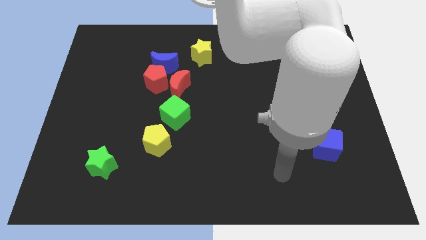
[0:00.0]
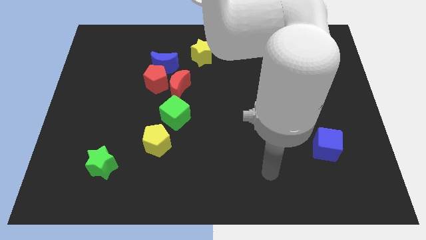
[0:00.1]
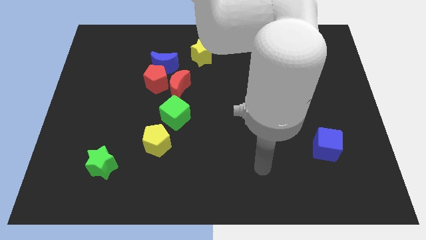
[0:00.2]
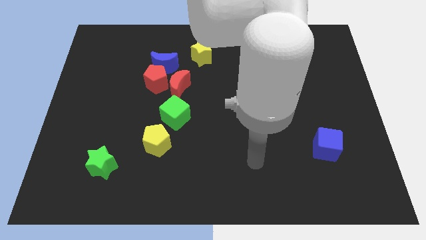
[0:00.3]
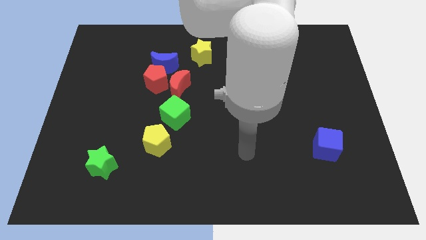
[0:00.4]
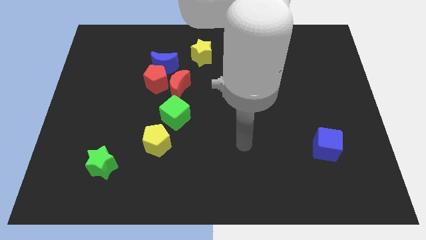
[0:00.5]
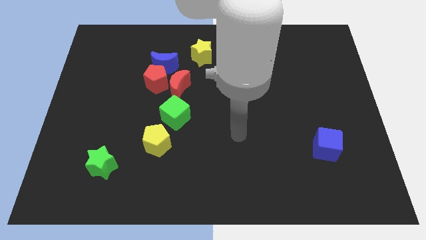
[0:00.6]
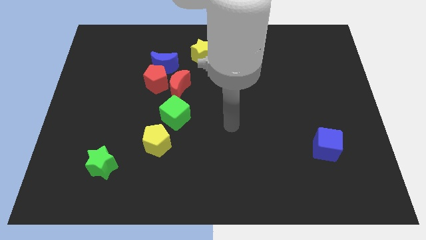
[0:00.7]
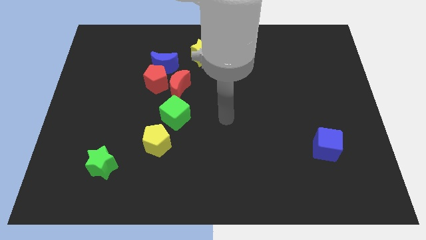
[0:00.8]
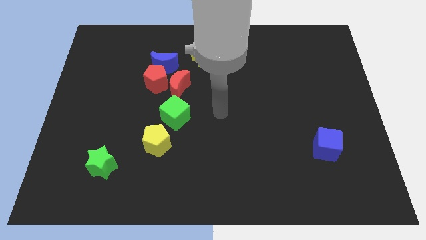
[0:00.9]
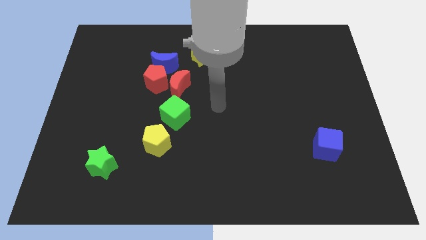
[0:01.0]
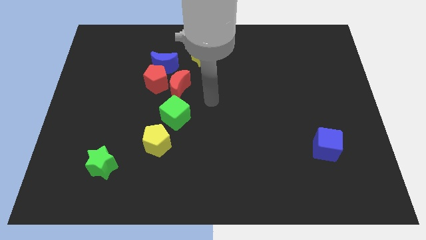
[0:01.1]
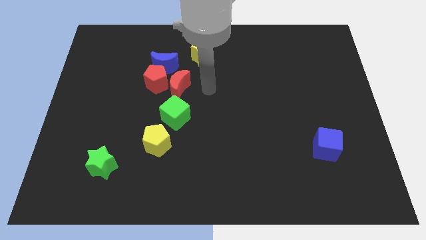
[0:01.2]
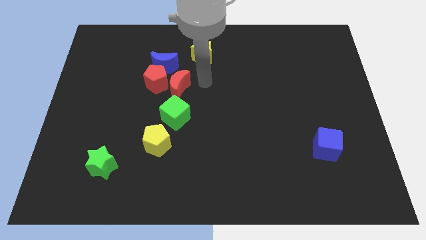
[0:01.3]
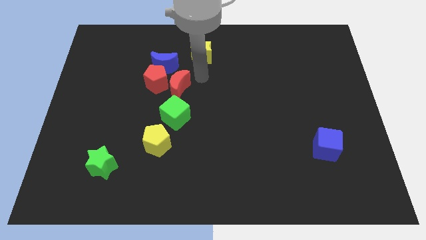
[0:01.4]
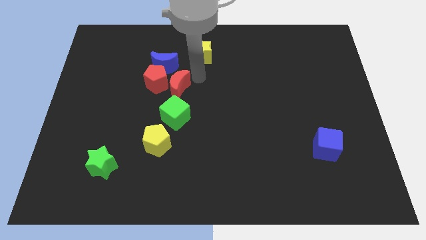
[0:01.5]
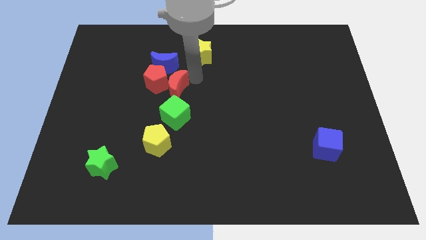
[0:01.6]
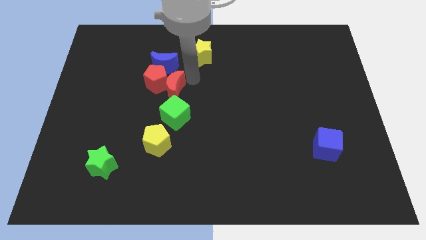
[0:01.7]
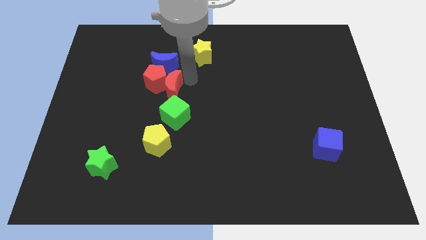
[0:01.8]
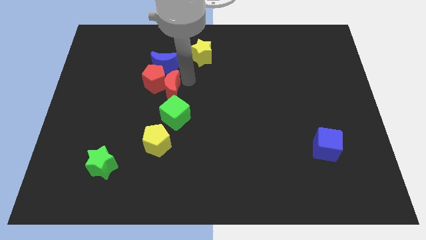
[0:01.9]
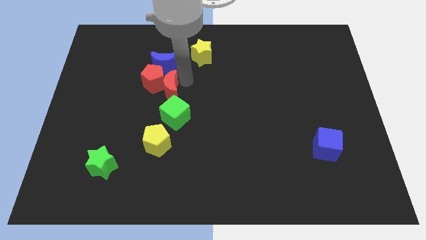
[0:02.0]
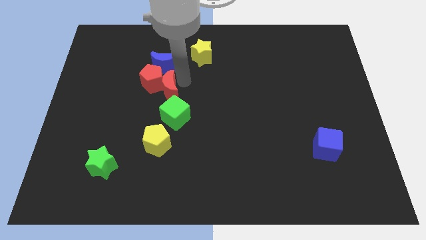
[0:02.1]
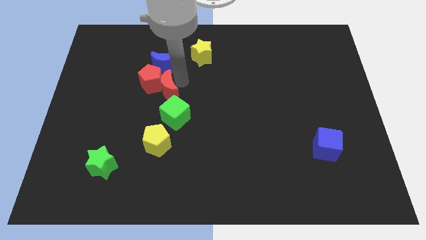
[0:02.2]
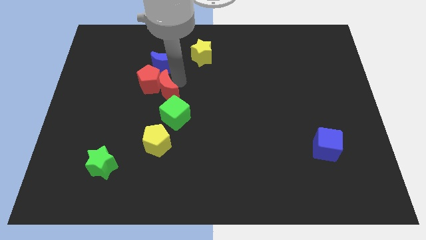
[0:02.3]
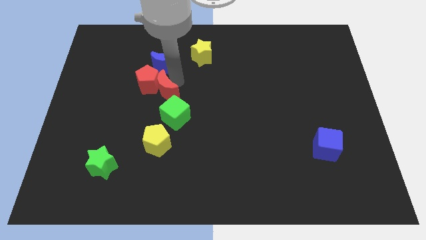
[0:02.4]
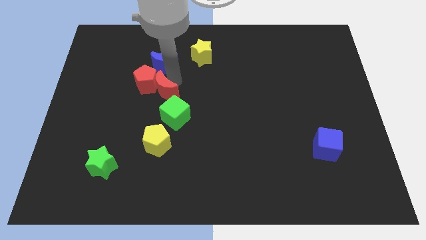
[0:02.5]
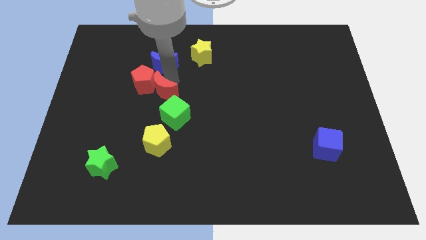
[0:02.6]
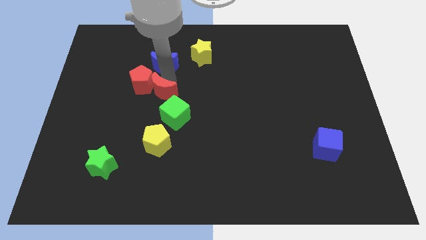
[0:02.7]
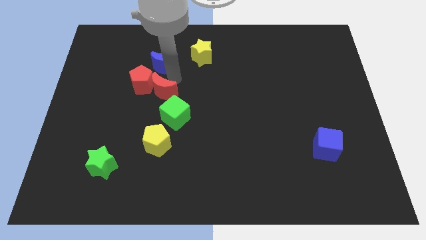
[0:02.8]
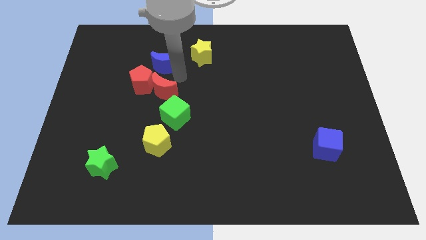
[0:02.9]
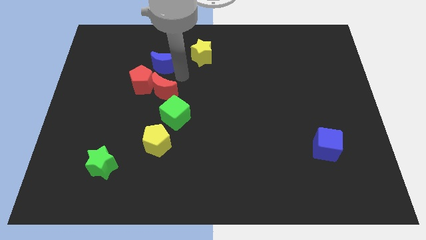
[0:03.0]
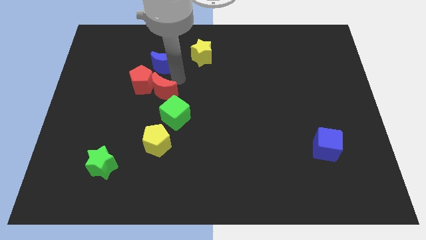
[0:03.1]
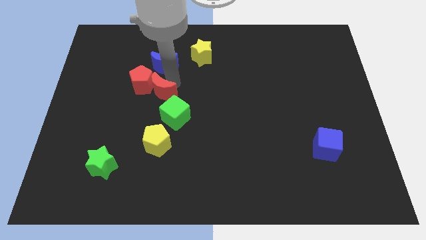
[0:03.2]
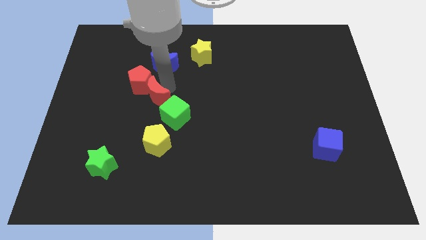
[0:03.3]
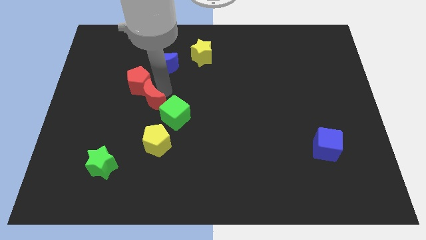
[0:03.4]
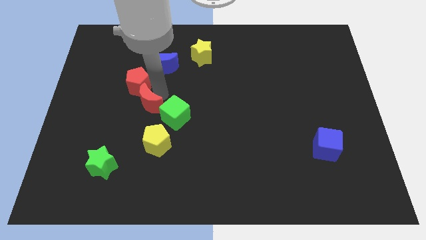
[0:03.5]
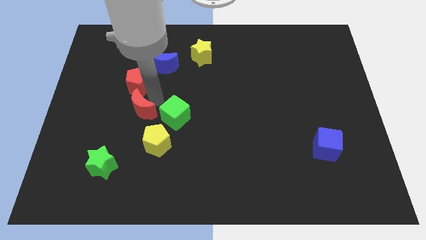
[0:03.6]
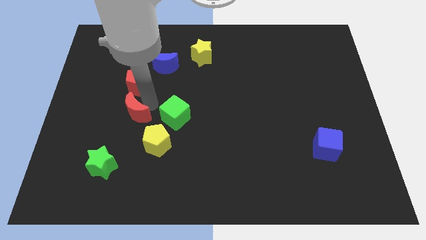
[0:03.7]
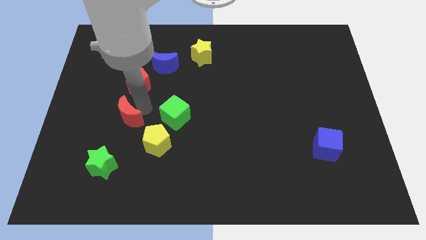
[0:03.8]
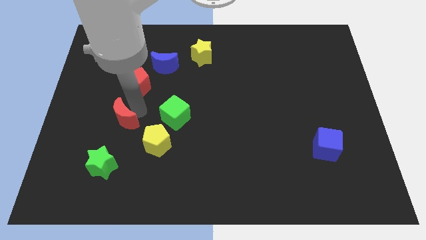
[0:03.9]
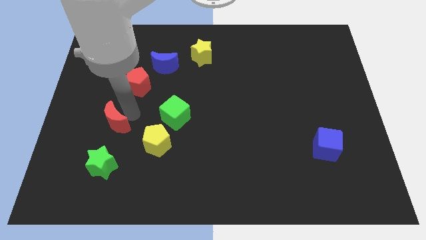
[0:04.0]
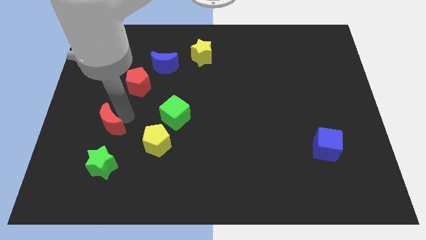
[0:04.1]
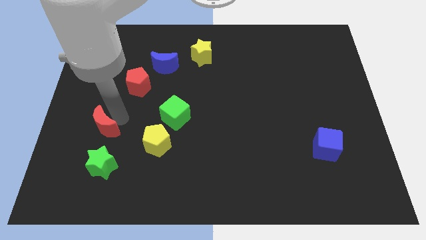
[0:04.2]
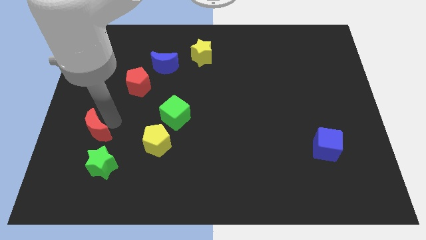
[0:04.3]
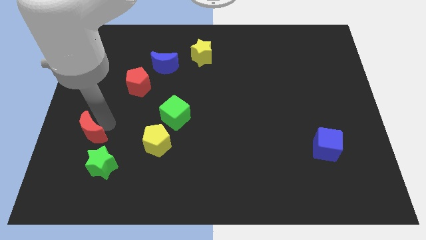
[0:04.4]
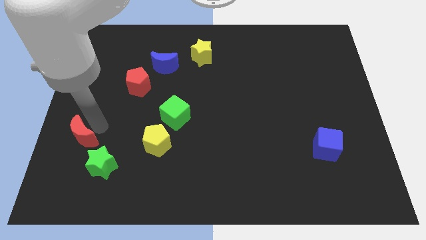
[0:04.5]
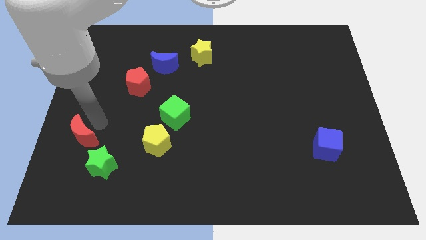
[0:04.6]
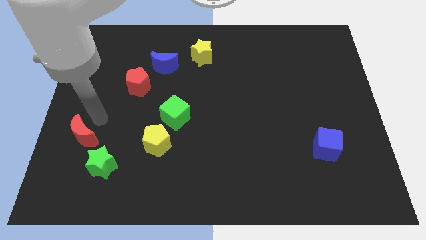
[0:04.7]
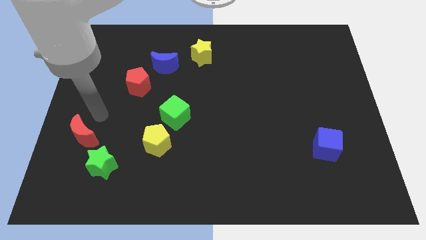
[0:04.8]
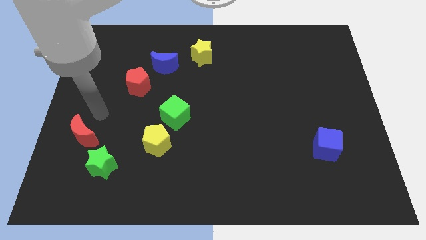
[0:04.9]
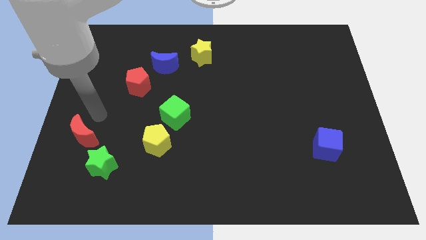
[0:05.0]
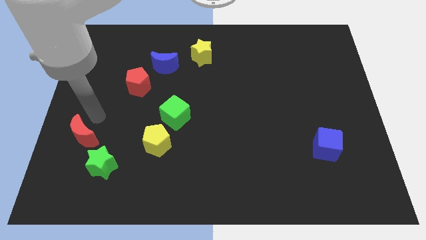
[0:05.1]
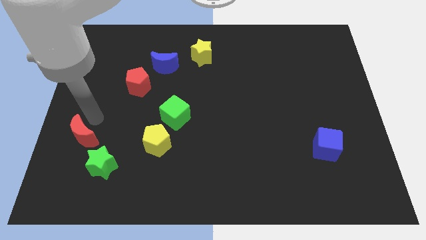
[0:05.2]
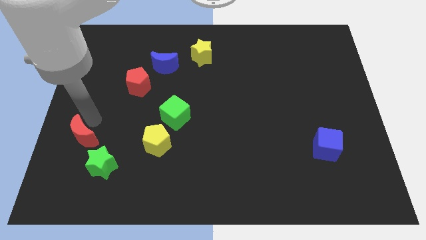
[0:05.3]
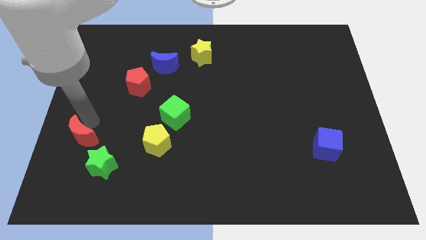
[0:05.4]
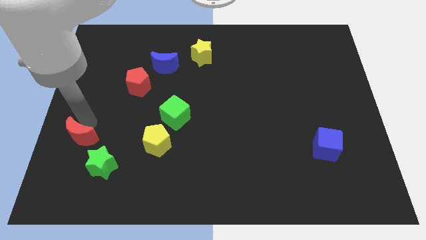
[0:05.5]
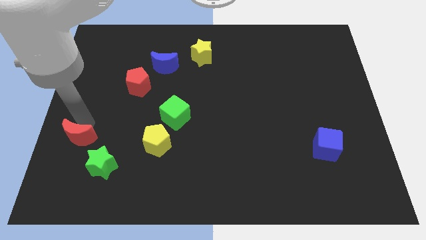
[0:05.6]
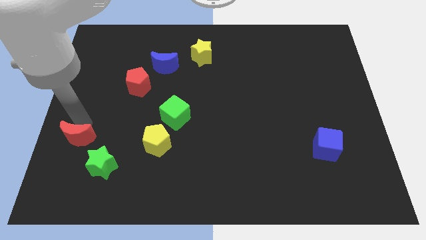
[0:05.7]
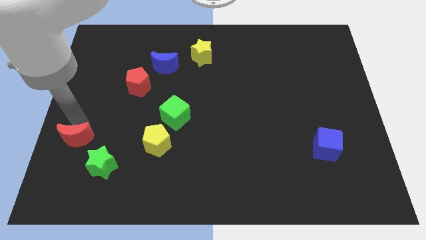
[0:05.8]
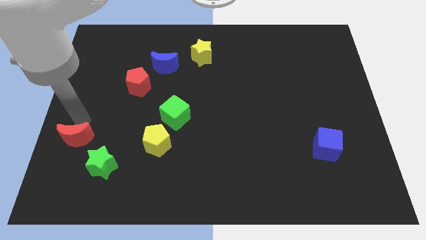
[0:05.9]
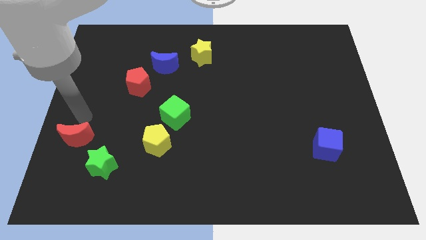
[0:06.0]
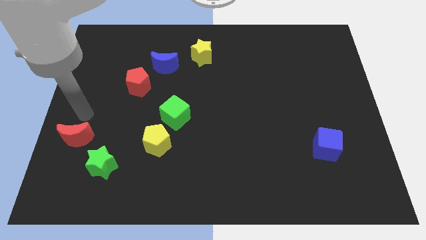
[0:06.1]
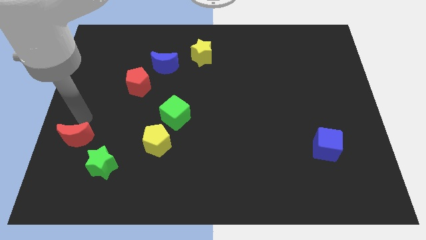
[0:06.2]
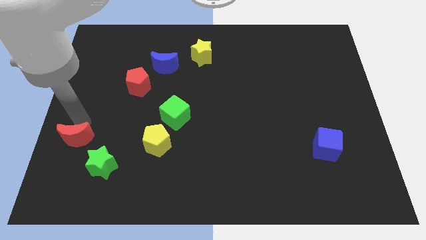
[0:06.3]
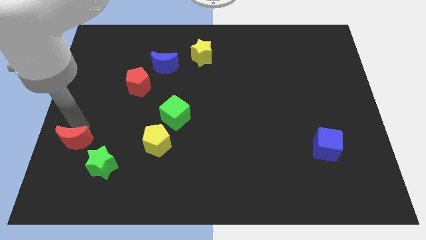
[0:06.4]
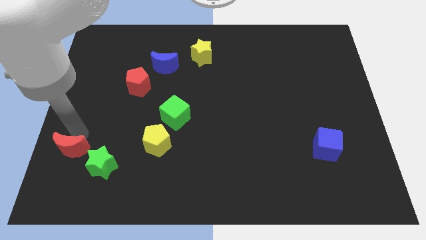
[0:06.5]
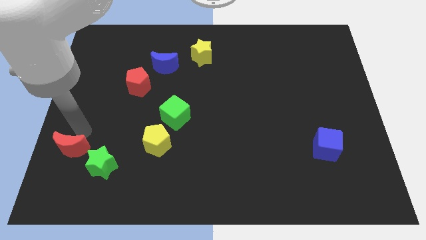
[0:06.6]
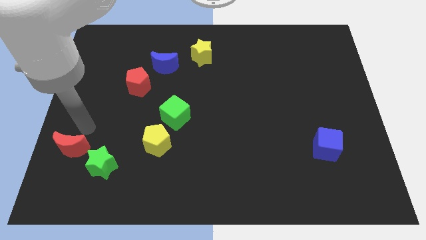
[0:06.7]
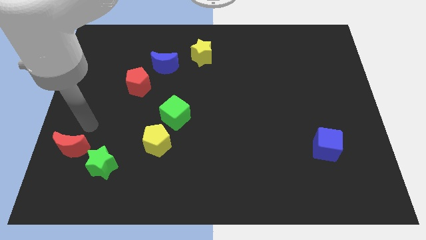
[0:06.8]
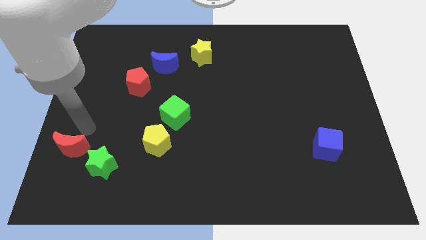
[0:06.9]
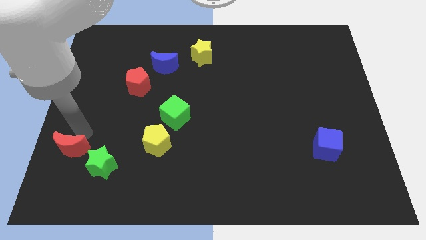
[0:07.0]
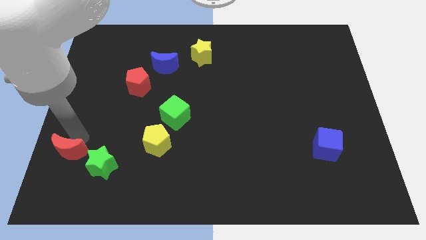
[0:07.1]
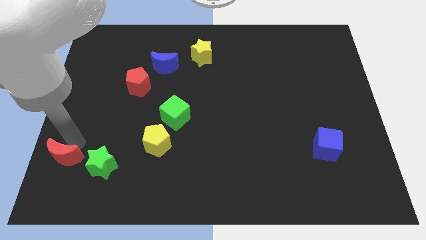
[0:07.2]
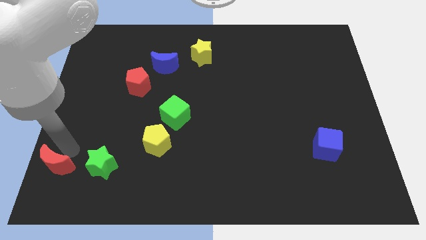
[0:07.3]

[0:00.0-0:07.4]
move the red moon to the lower left corner
